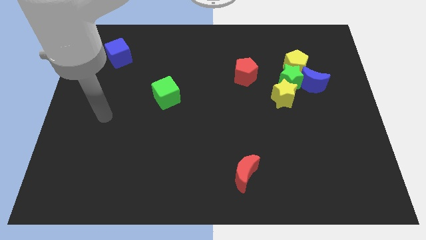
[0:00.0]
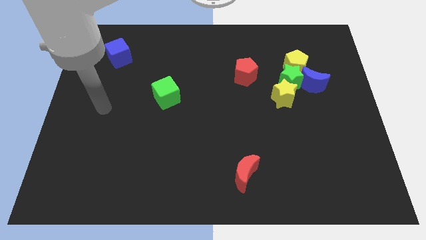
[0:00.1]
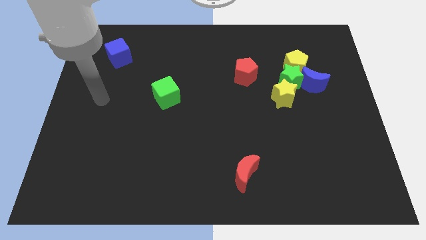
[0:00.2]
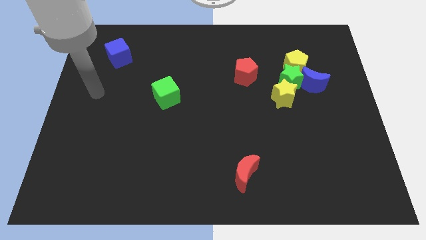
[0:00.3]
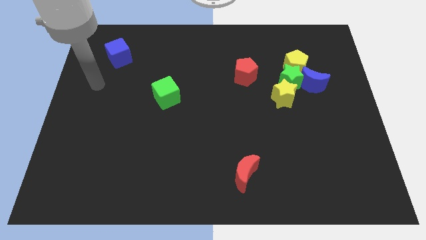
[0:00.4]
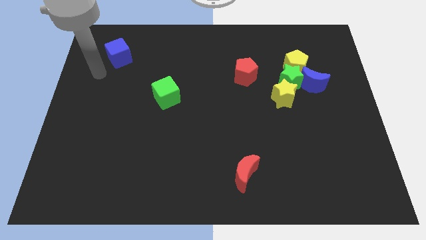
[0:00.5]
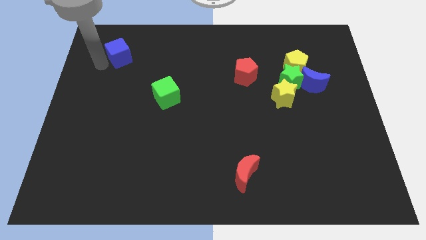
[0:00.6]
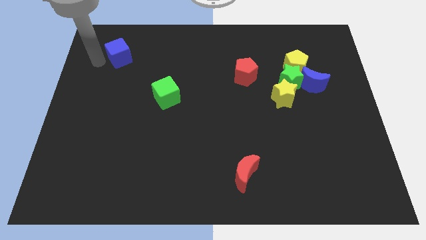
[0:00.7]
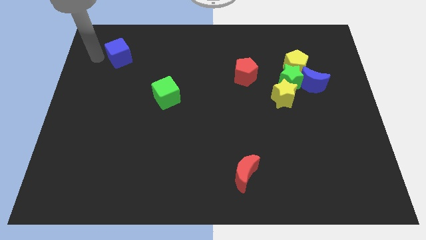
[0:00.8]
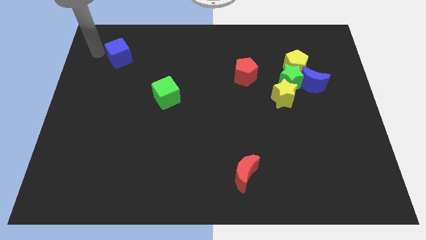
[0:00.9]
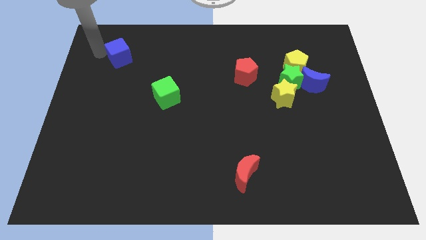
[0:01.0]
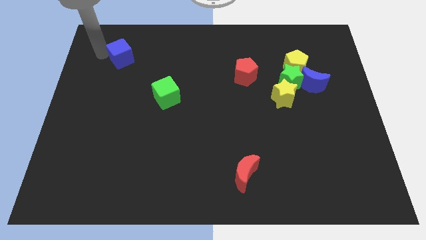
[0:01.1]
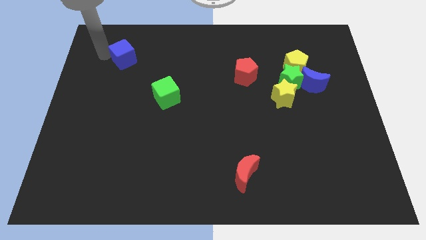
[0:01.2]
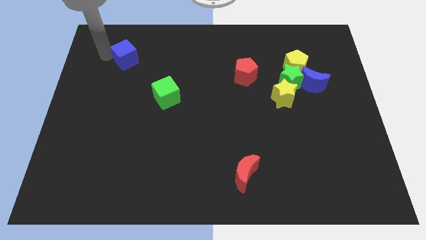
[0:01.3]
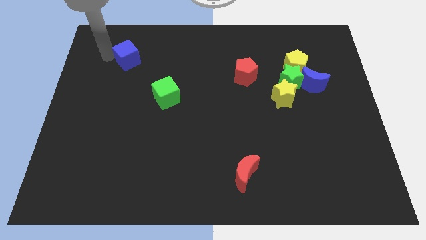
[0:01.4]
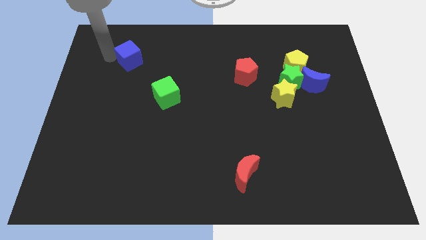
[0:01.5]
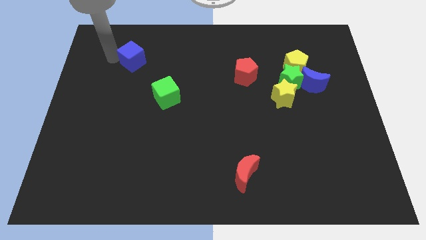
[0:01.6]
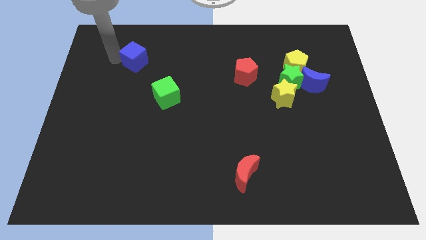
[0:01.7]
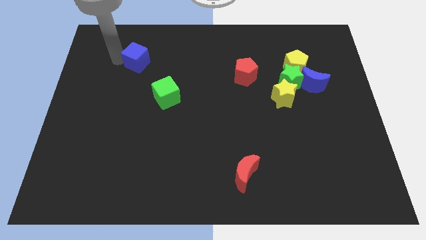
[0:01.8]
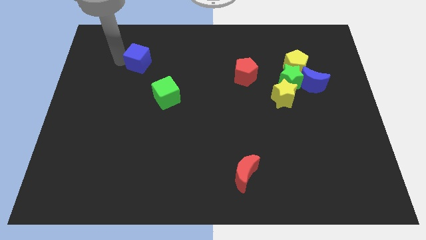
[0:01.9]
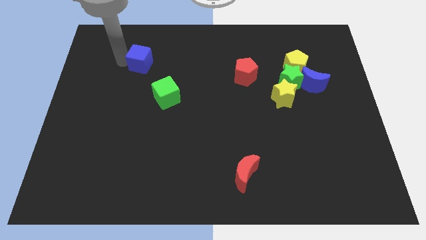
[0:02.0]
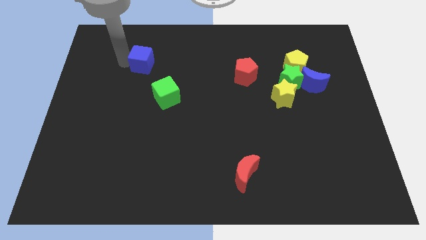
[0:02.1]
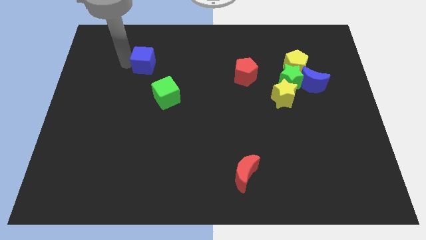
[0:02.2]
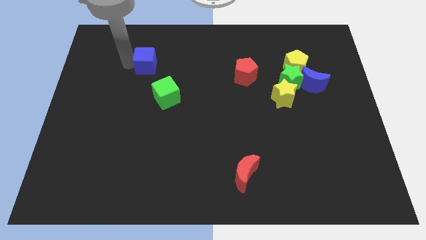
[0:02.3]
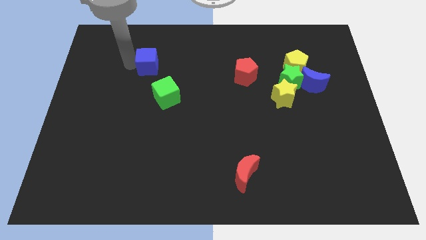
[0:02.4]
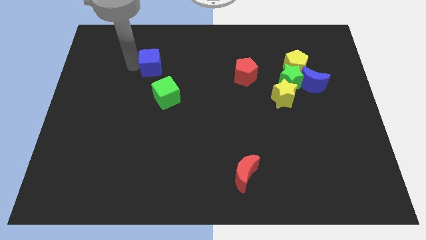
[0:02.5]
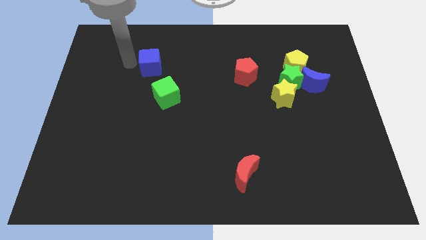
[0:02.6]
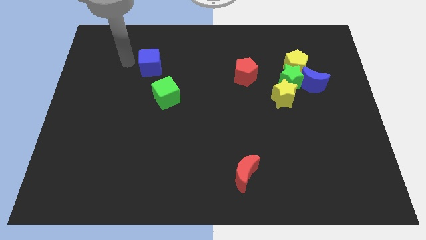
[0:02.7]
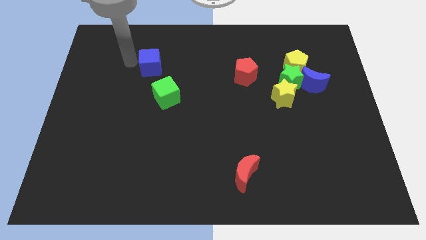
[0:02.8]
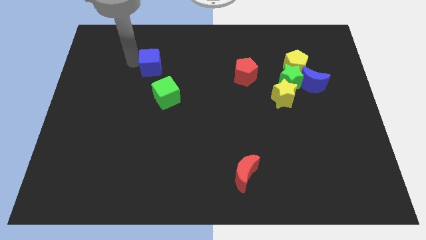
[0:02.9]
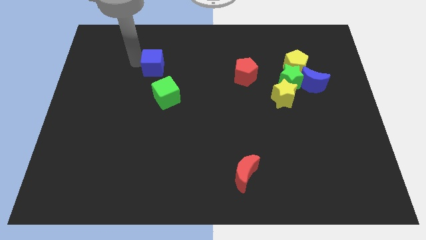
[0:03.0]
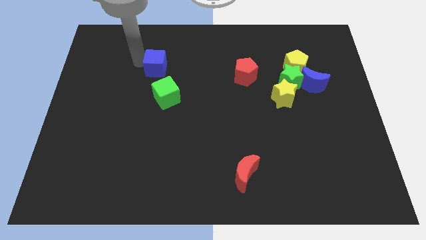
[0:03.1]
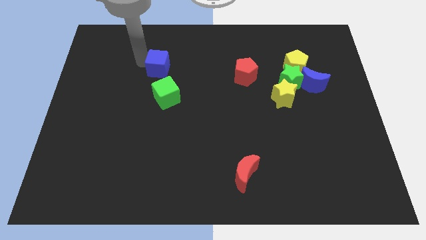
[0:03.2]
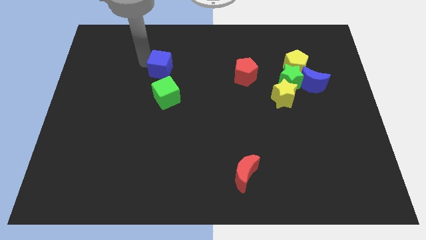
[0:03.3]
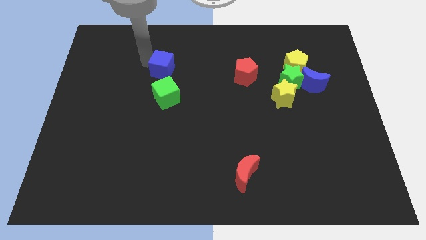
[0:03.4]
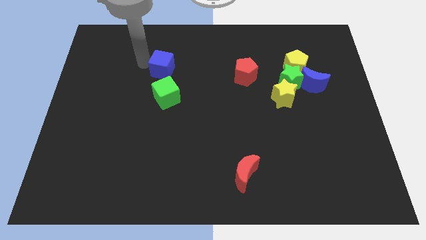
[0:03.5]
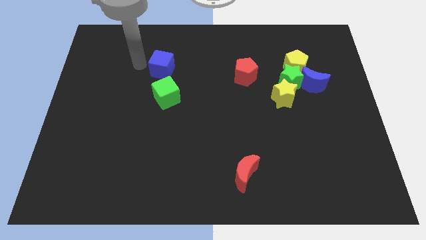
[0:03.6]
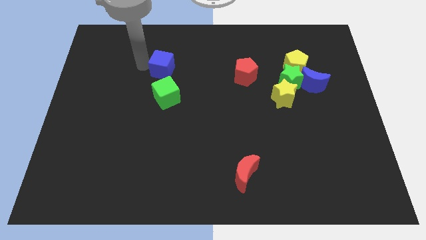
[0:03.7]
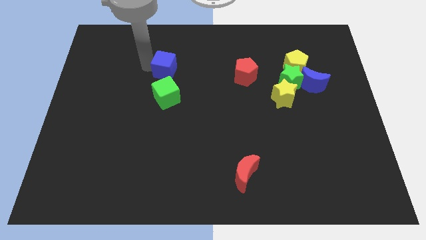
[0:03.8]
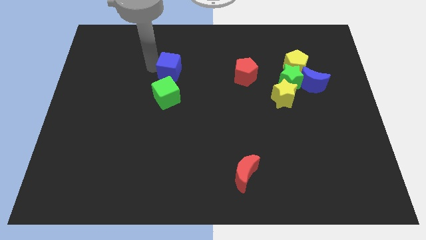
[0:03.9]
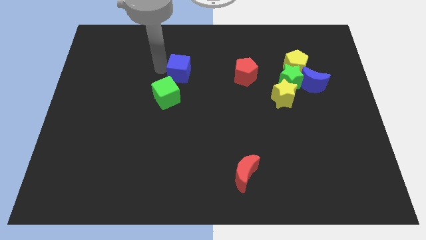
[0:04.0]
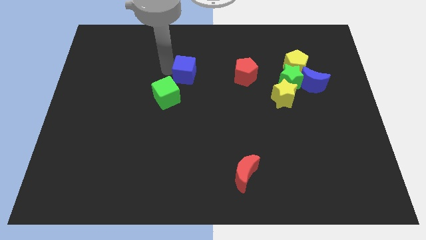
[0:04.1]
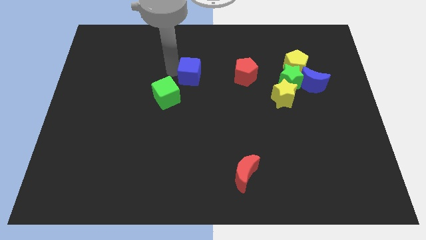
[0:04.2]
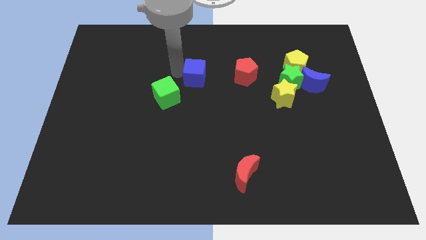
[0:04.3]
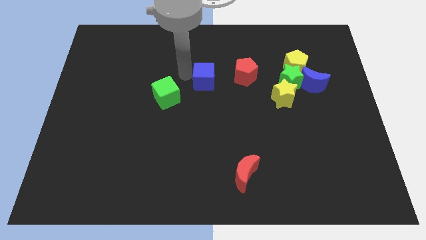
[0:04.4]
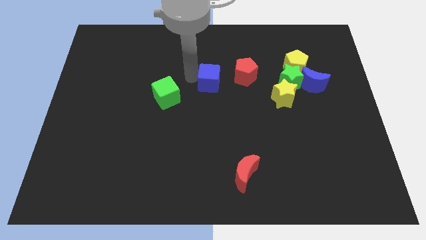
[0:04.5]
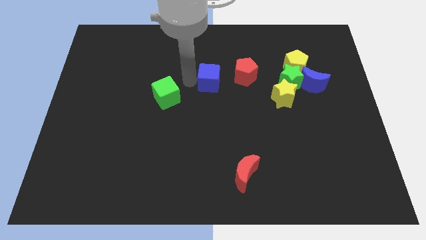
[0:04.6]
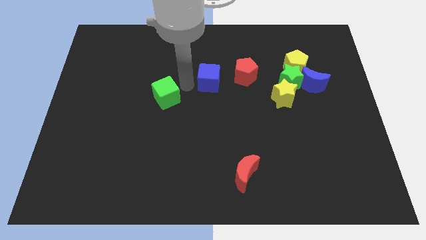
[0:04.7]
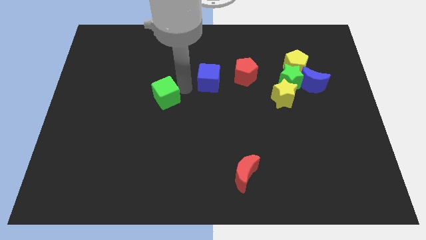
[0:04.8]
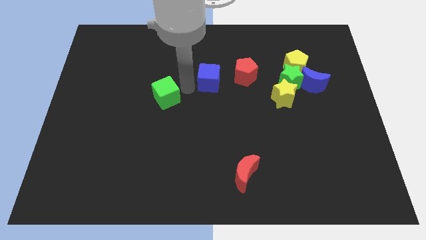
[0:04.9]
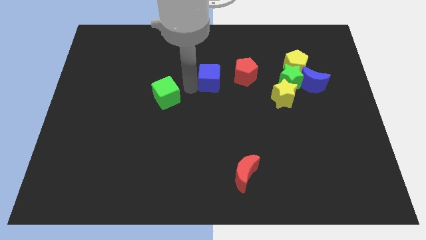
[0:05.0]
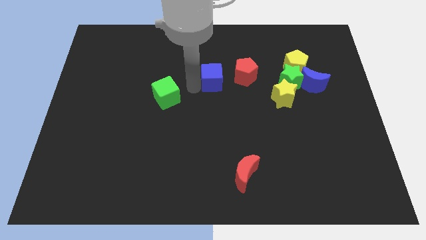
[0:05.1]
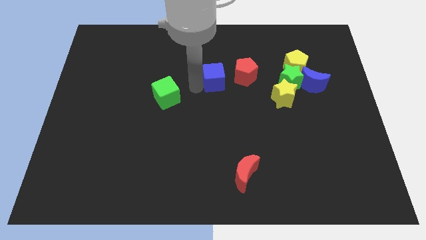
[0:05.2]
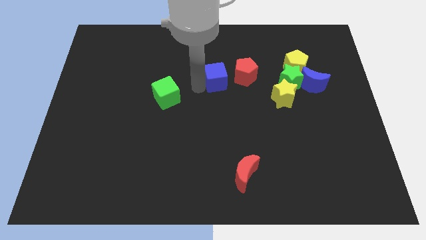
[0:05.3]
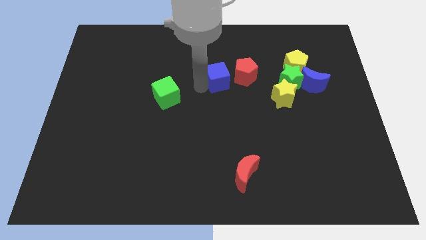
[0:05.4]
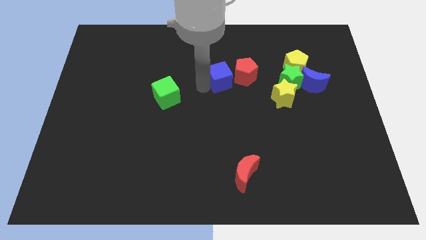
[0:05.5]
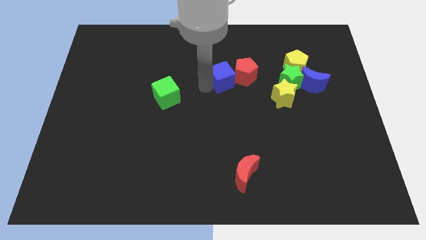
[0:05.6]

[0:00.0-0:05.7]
push the blue cube towards the red pentagon

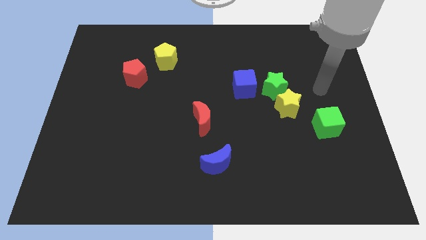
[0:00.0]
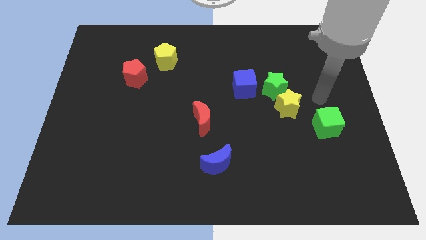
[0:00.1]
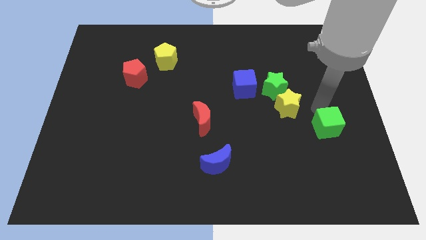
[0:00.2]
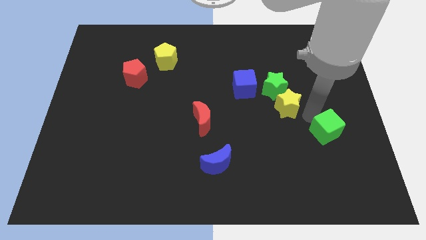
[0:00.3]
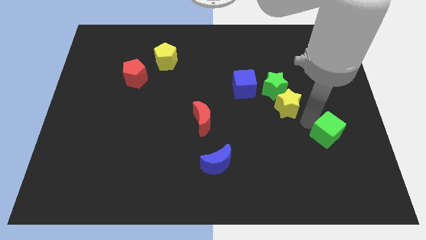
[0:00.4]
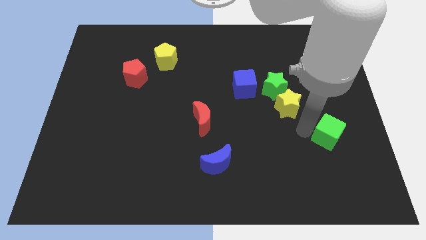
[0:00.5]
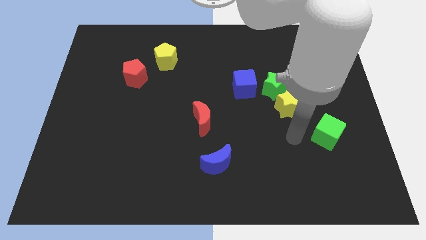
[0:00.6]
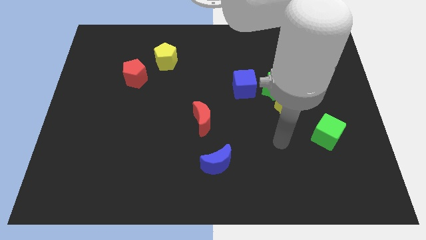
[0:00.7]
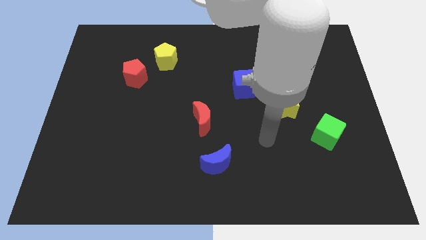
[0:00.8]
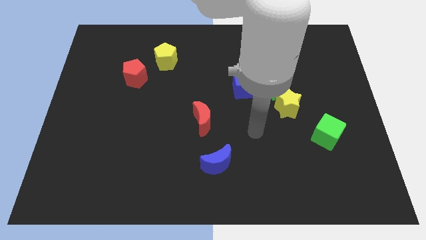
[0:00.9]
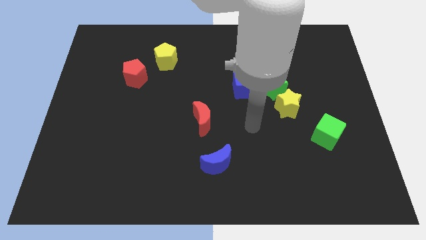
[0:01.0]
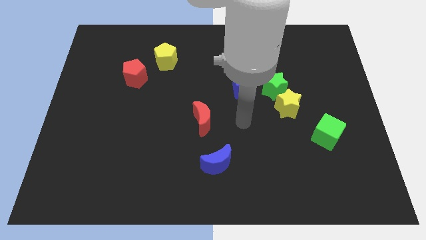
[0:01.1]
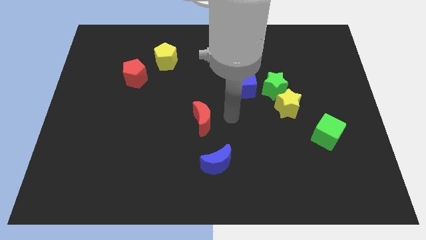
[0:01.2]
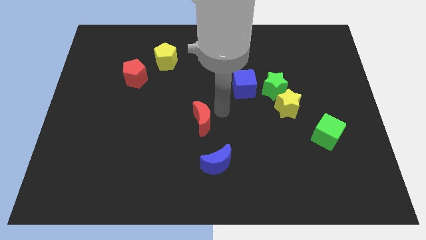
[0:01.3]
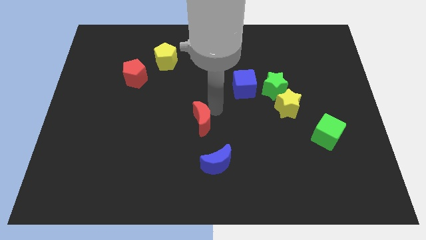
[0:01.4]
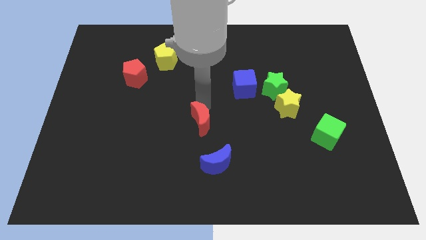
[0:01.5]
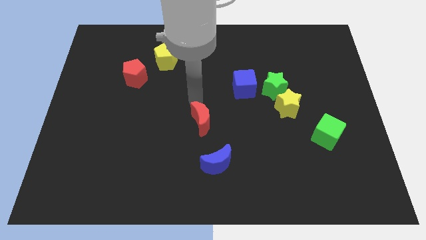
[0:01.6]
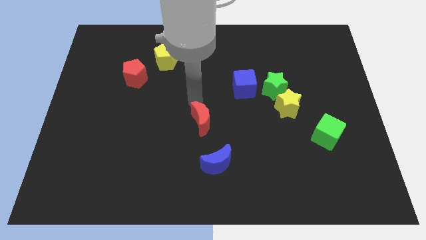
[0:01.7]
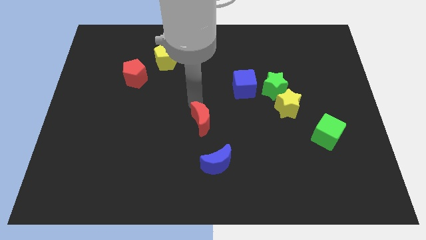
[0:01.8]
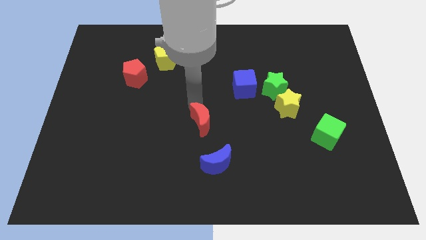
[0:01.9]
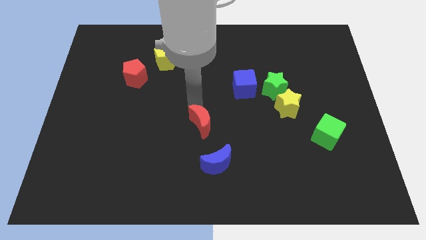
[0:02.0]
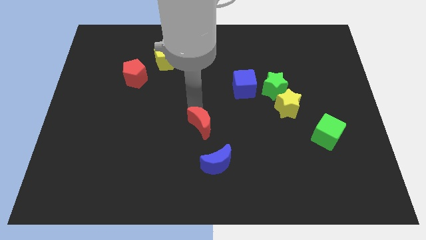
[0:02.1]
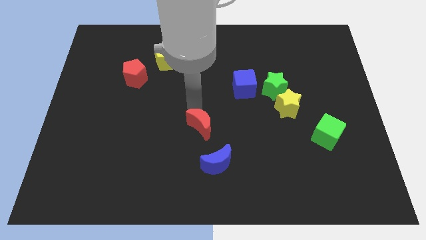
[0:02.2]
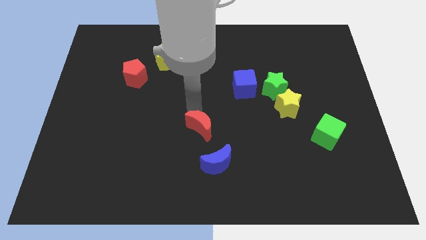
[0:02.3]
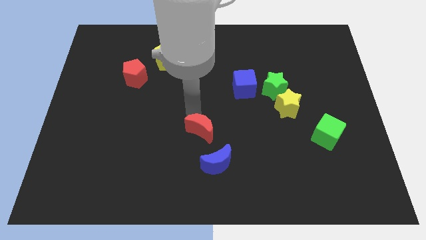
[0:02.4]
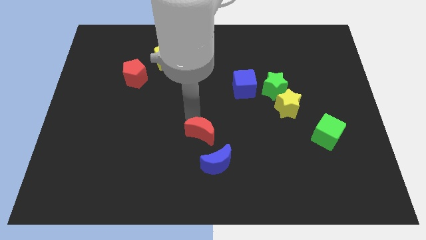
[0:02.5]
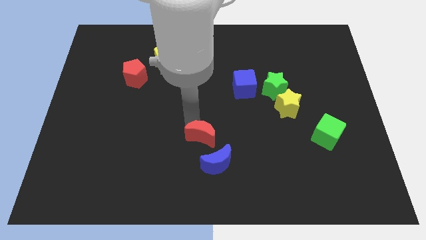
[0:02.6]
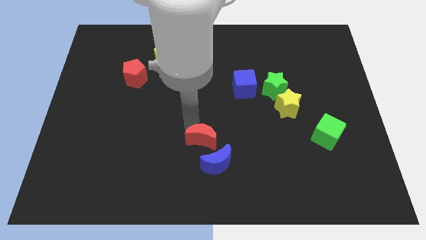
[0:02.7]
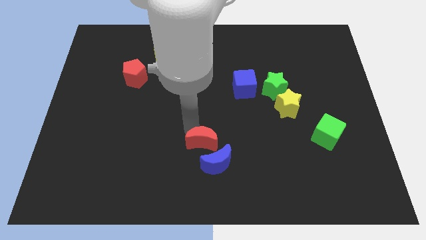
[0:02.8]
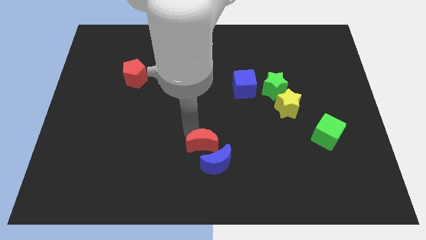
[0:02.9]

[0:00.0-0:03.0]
push the red moon to the blue moon
